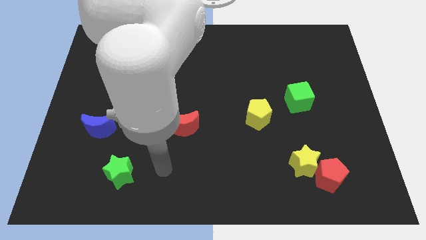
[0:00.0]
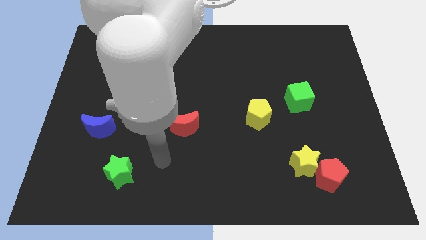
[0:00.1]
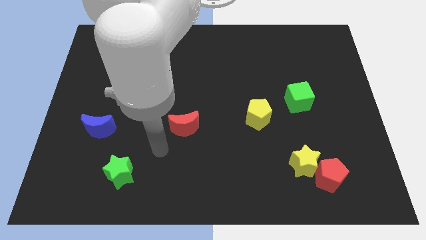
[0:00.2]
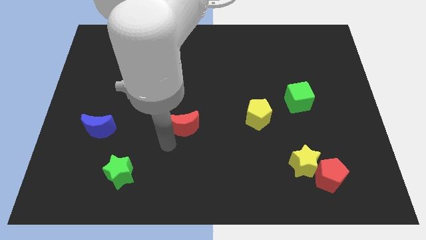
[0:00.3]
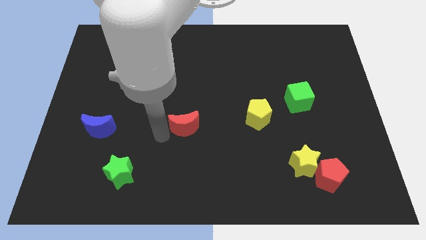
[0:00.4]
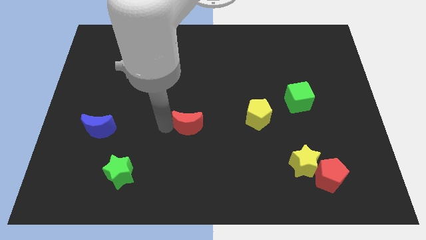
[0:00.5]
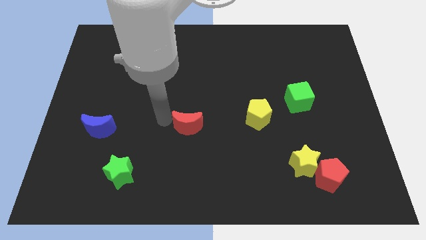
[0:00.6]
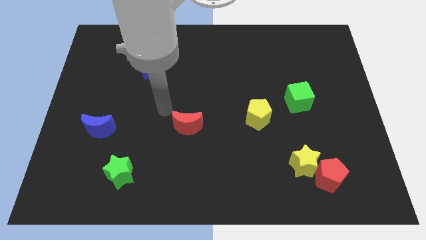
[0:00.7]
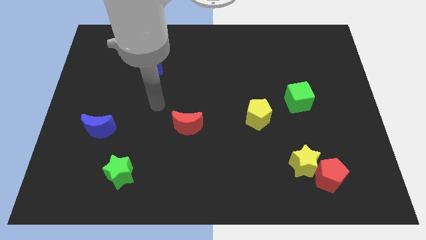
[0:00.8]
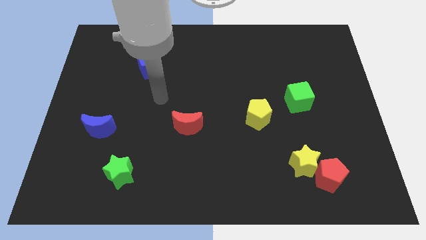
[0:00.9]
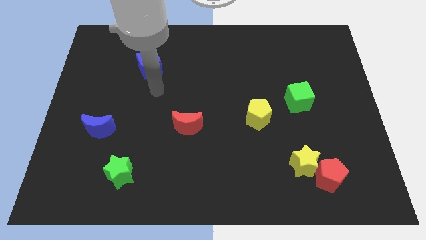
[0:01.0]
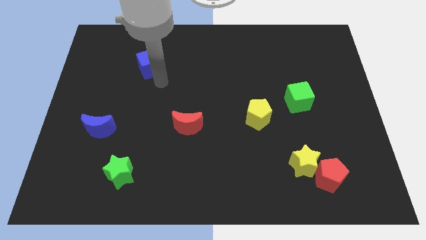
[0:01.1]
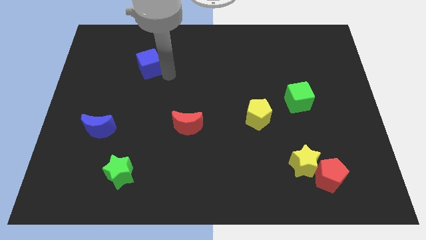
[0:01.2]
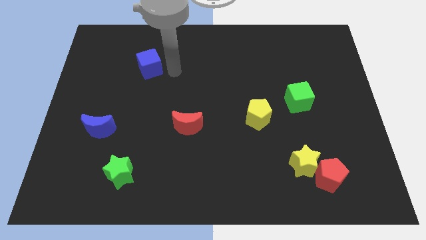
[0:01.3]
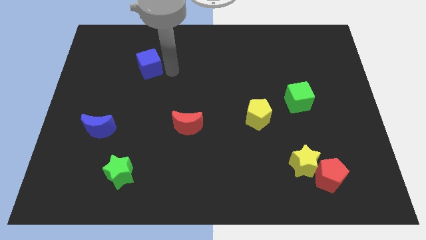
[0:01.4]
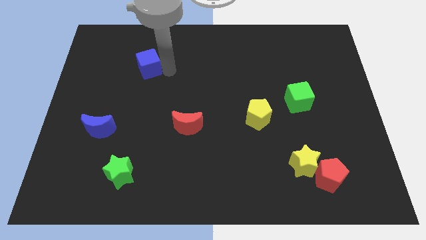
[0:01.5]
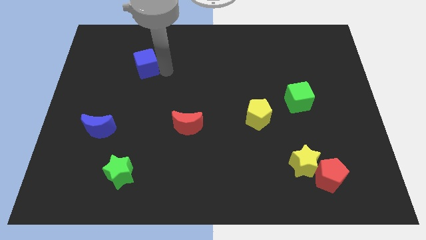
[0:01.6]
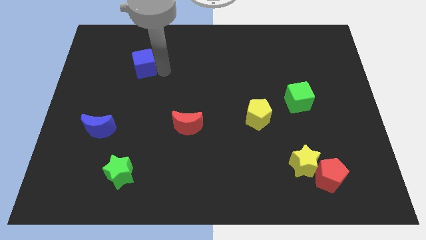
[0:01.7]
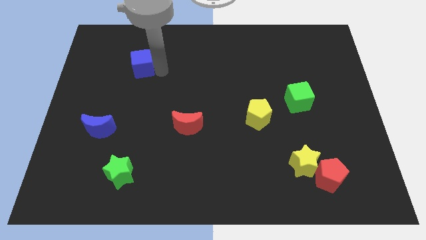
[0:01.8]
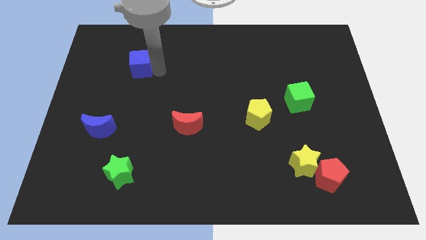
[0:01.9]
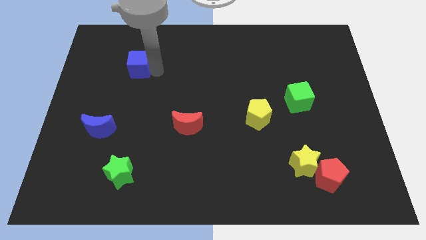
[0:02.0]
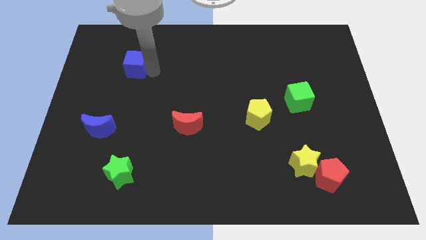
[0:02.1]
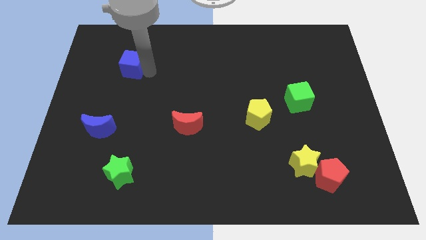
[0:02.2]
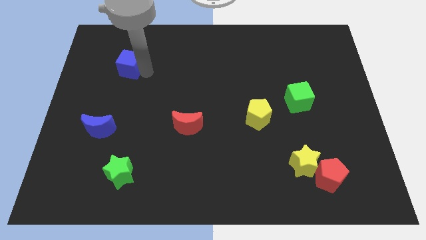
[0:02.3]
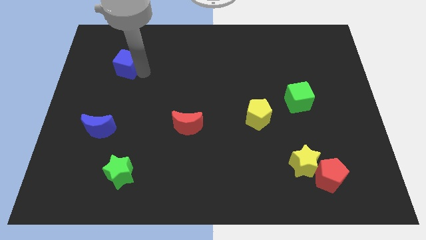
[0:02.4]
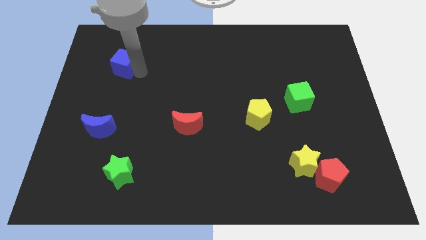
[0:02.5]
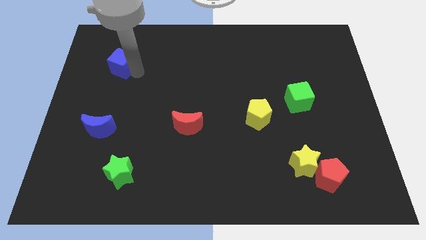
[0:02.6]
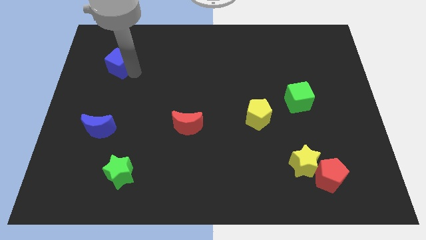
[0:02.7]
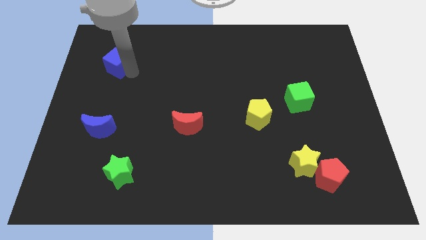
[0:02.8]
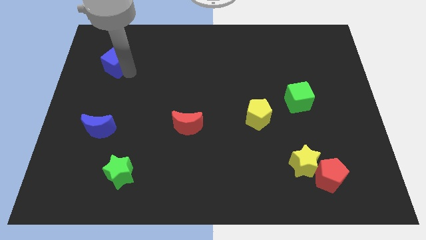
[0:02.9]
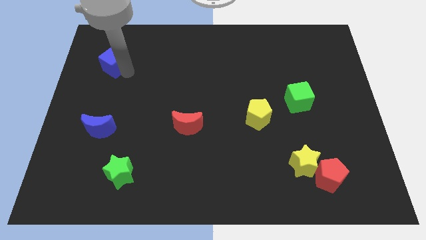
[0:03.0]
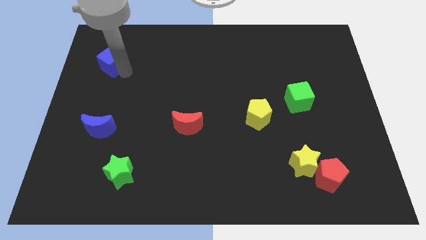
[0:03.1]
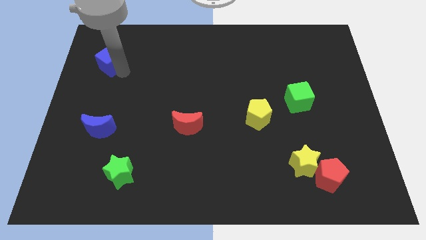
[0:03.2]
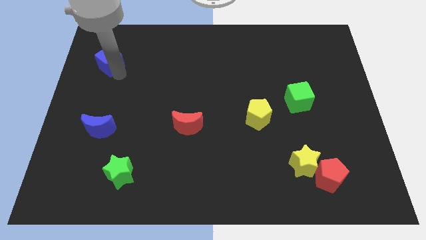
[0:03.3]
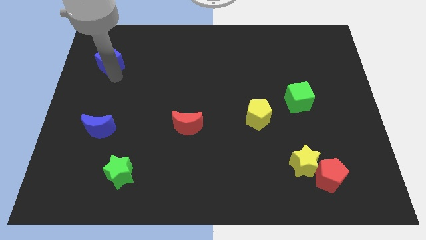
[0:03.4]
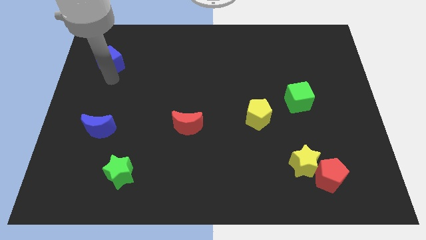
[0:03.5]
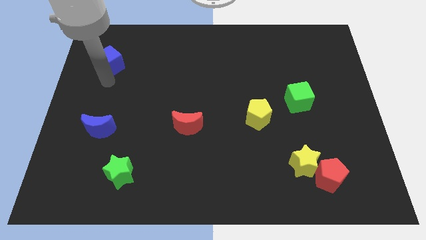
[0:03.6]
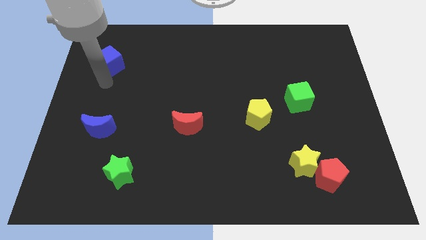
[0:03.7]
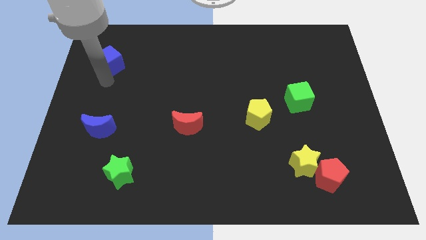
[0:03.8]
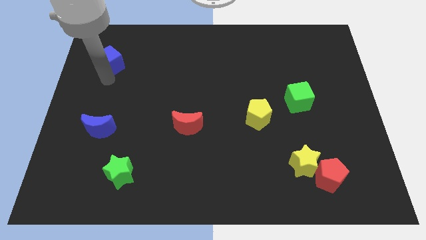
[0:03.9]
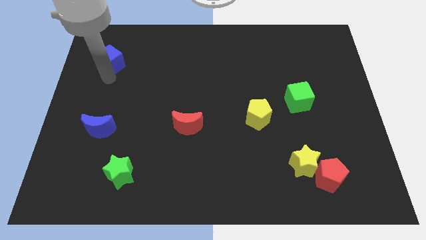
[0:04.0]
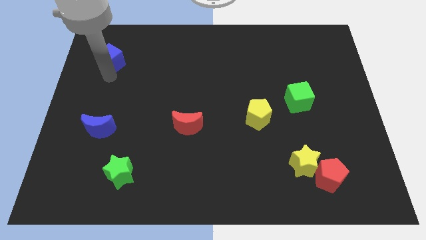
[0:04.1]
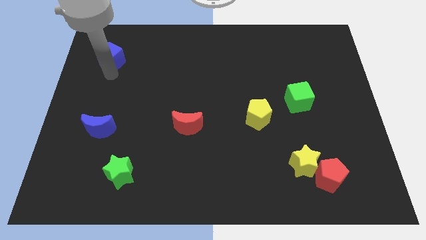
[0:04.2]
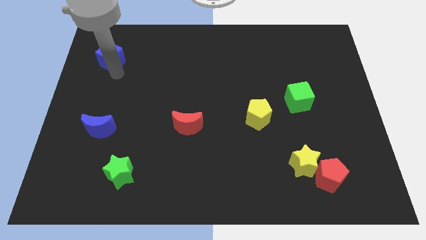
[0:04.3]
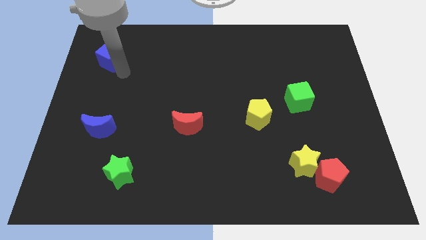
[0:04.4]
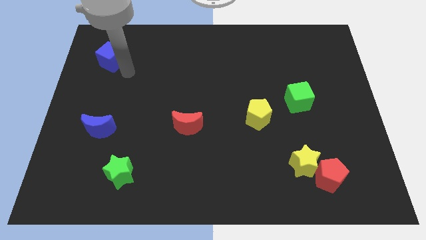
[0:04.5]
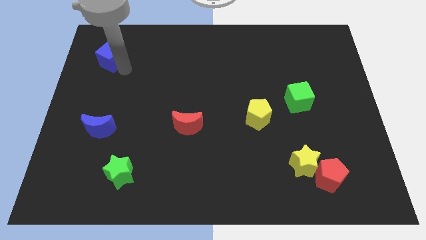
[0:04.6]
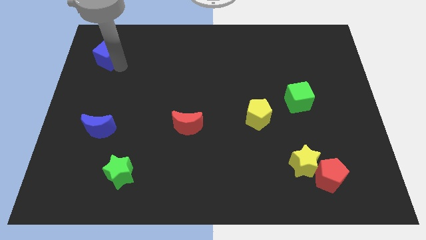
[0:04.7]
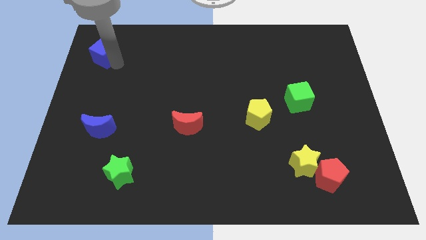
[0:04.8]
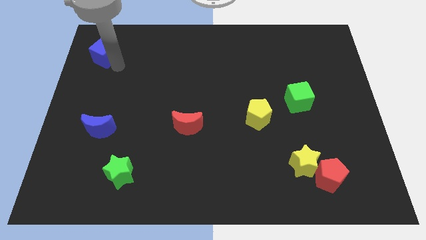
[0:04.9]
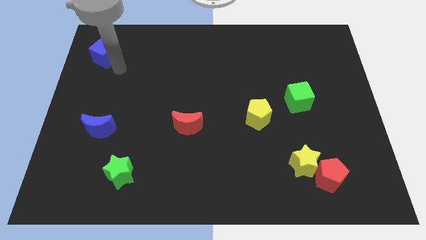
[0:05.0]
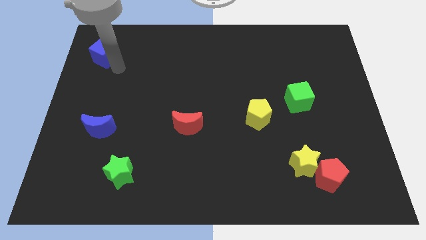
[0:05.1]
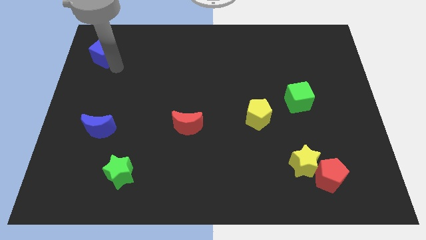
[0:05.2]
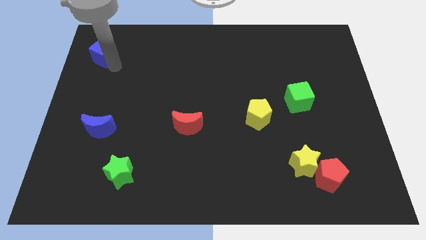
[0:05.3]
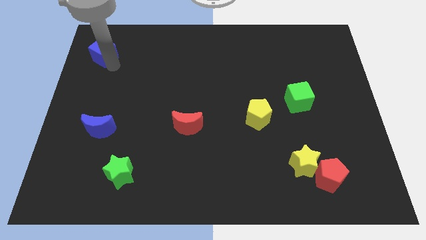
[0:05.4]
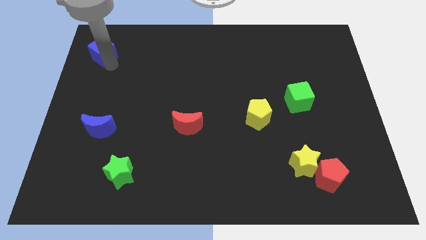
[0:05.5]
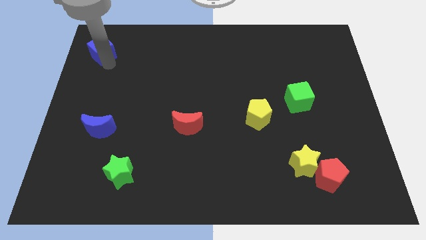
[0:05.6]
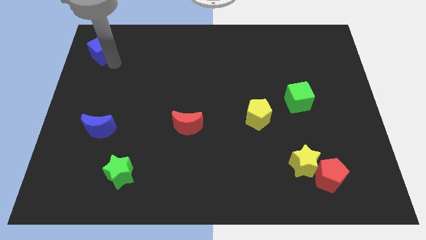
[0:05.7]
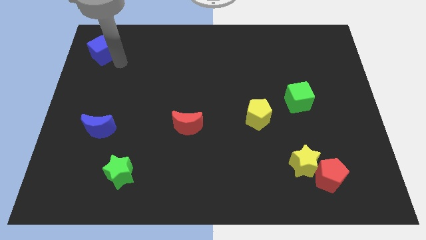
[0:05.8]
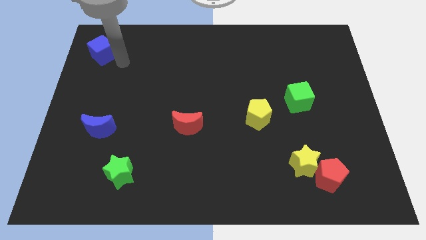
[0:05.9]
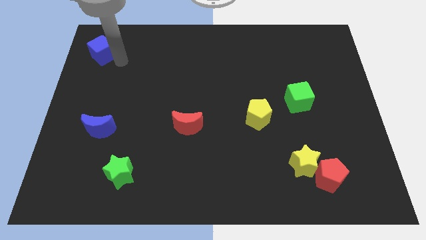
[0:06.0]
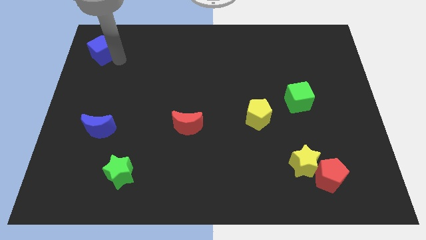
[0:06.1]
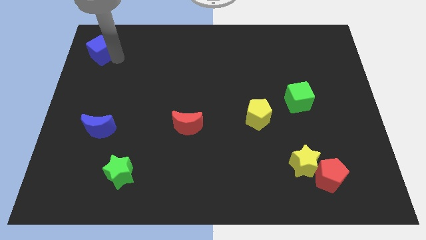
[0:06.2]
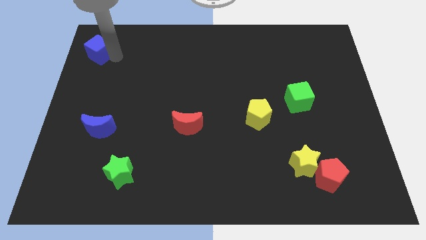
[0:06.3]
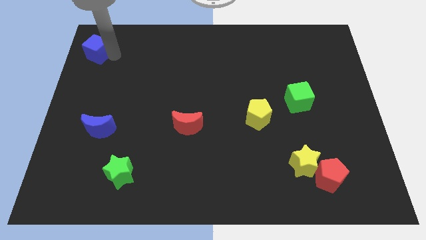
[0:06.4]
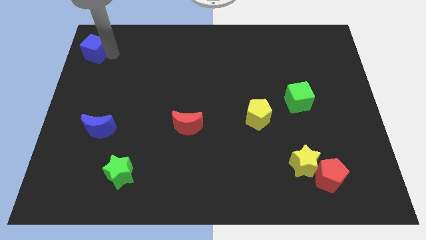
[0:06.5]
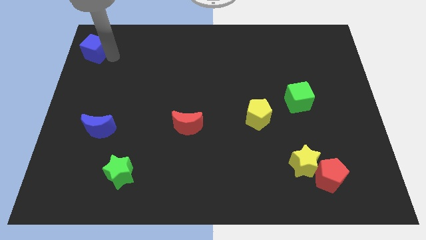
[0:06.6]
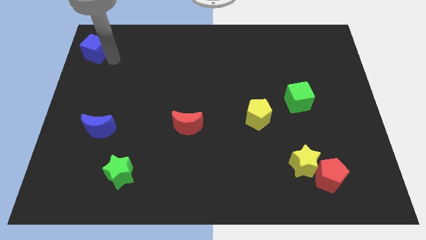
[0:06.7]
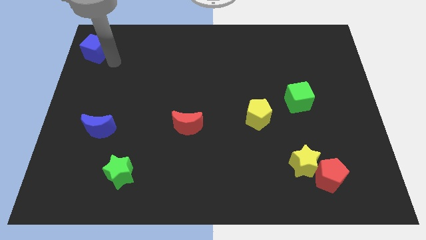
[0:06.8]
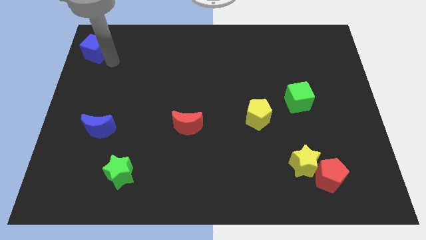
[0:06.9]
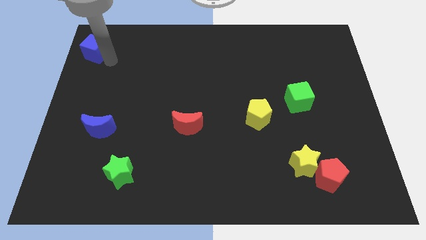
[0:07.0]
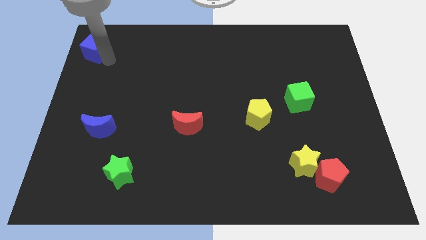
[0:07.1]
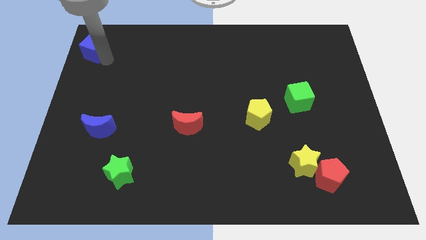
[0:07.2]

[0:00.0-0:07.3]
push the blue cube to the top left of the board
